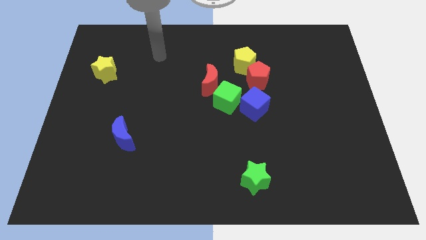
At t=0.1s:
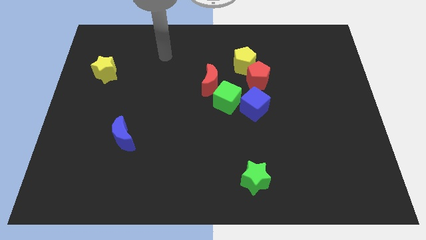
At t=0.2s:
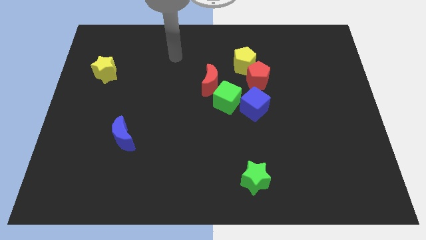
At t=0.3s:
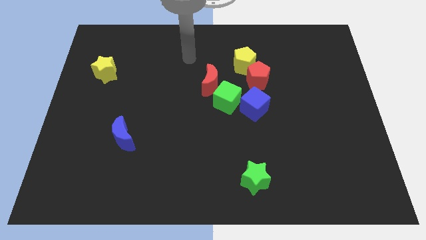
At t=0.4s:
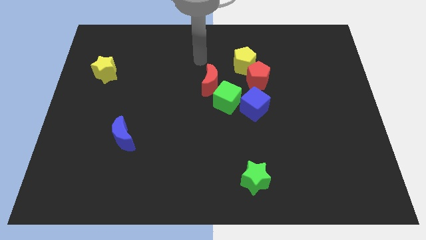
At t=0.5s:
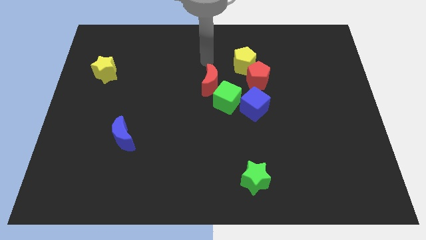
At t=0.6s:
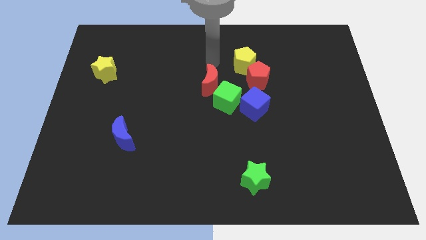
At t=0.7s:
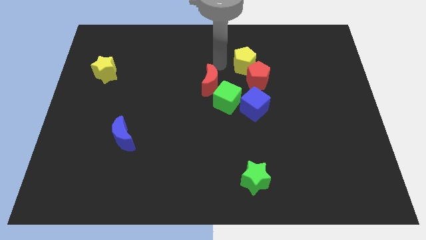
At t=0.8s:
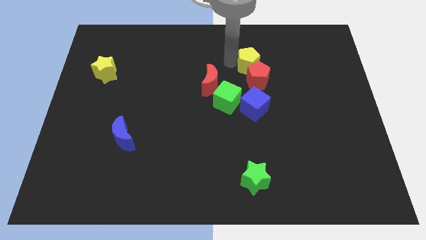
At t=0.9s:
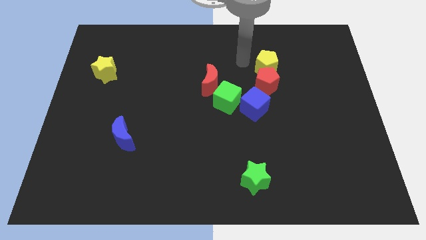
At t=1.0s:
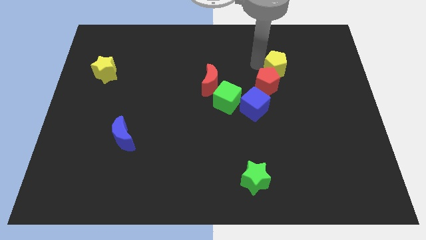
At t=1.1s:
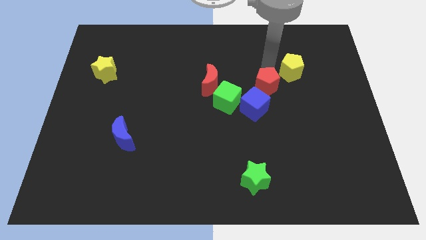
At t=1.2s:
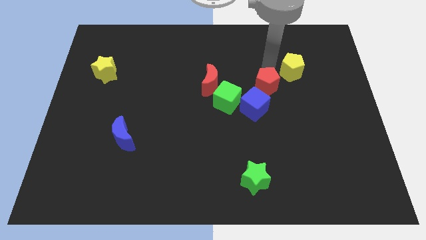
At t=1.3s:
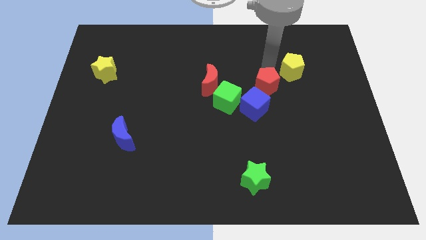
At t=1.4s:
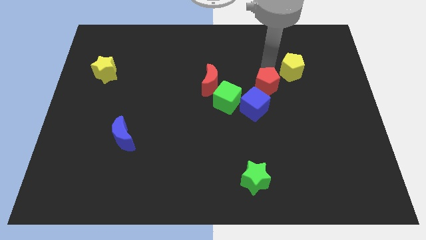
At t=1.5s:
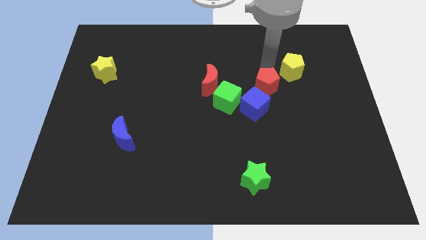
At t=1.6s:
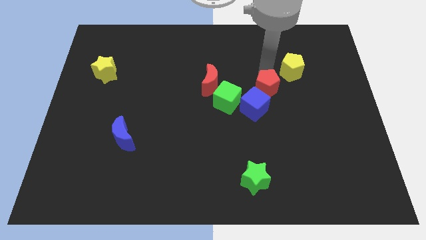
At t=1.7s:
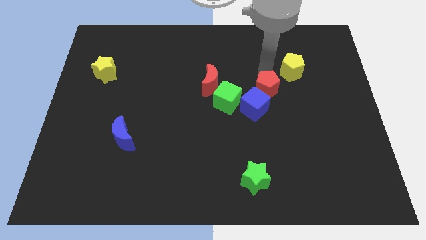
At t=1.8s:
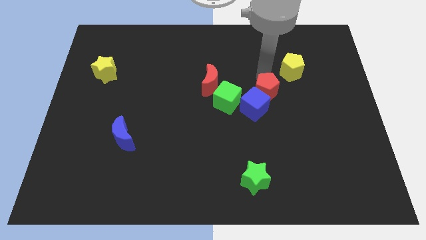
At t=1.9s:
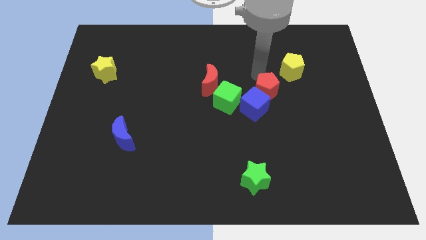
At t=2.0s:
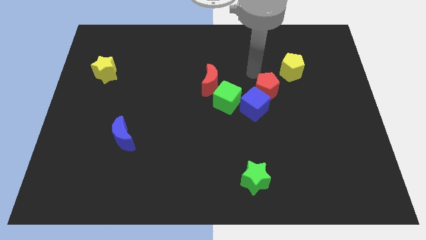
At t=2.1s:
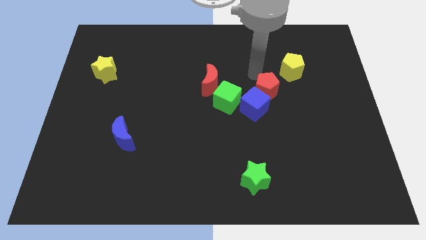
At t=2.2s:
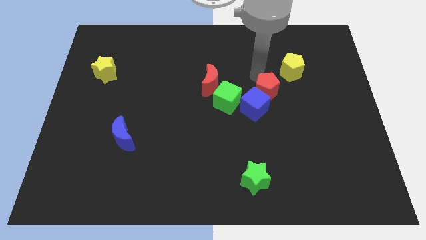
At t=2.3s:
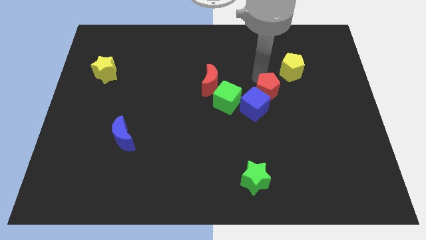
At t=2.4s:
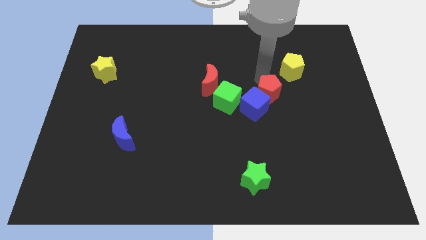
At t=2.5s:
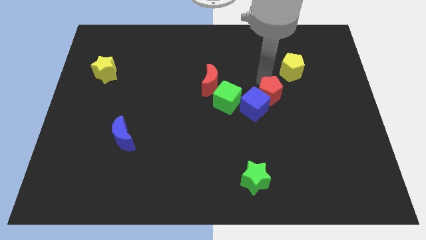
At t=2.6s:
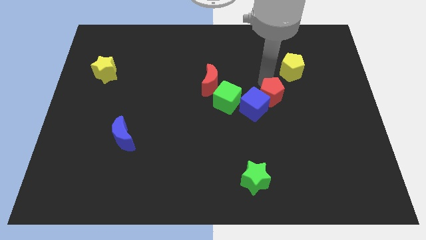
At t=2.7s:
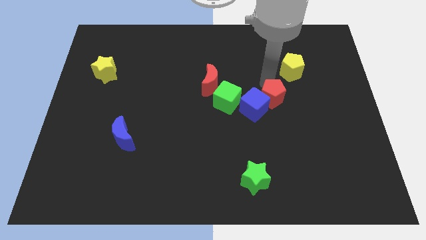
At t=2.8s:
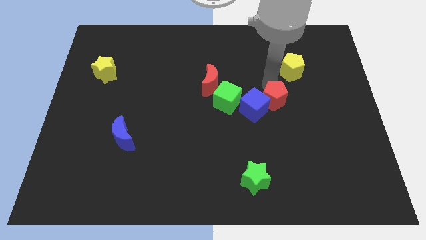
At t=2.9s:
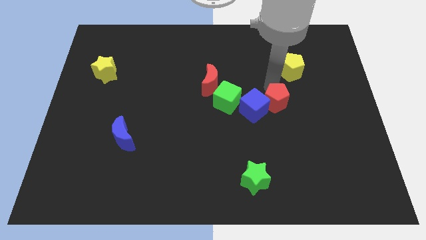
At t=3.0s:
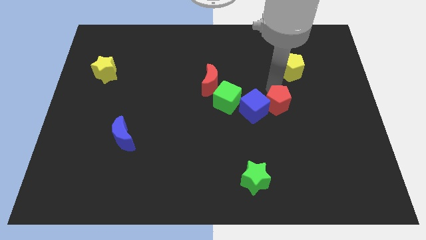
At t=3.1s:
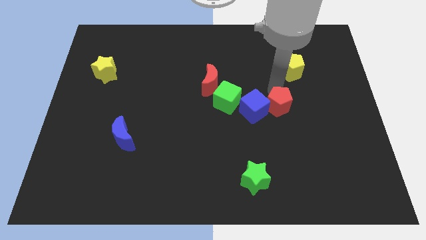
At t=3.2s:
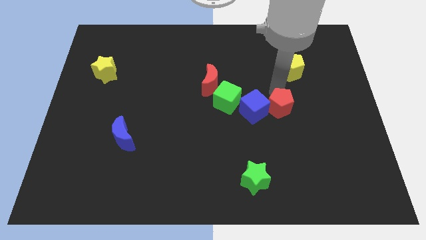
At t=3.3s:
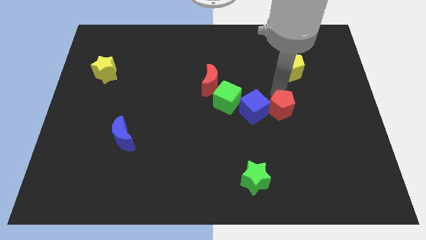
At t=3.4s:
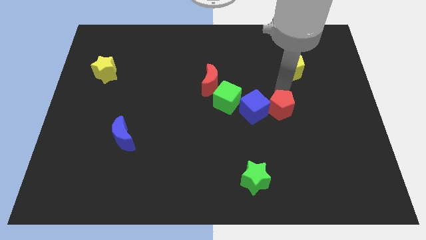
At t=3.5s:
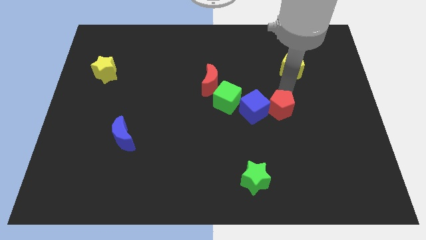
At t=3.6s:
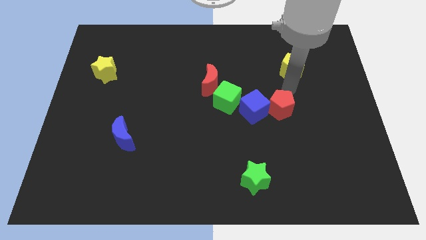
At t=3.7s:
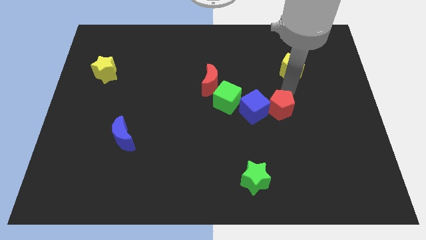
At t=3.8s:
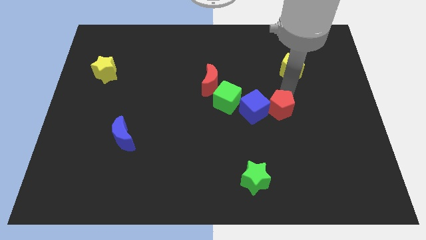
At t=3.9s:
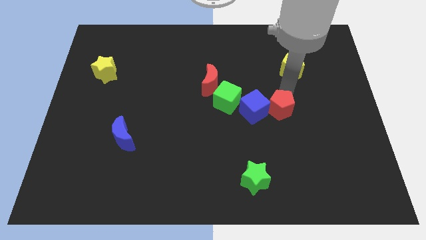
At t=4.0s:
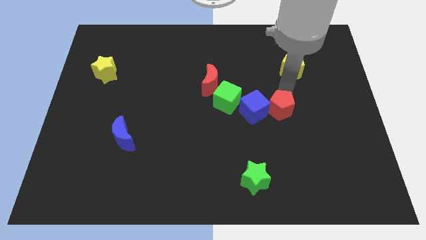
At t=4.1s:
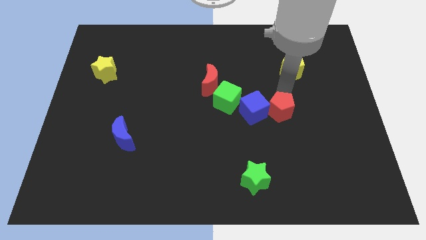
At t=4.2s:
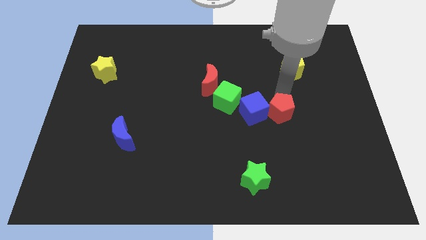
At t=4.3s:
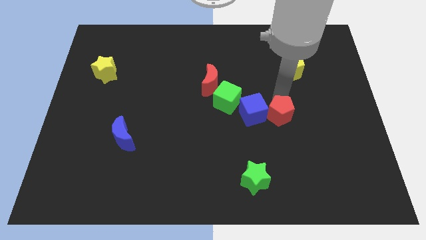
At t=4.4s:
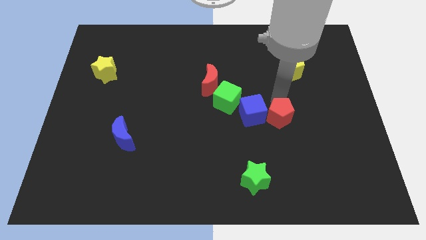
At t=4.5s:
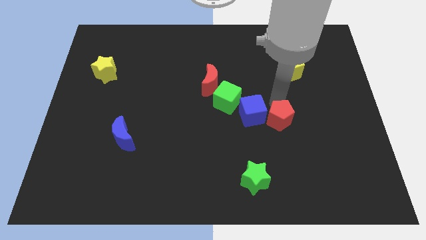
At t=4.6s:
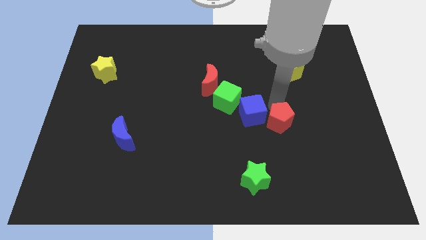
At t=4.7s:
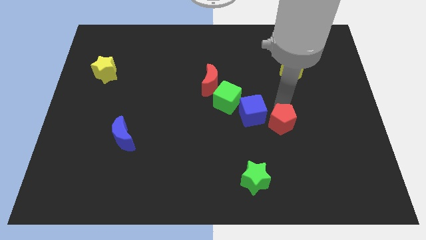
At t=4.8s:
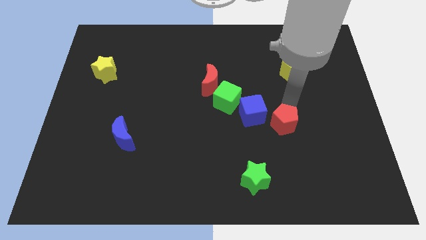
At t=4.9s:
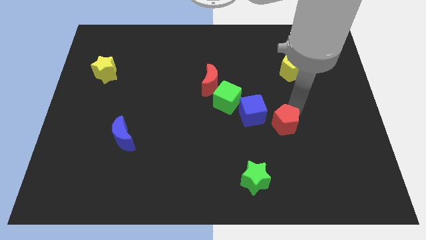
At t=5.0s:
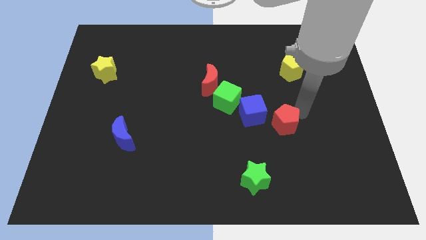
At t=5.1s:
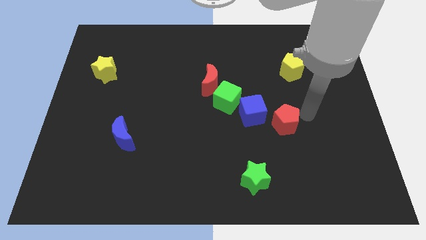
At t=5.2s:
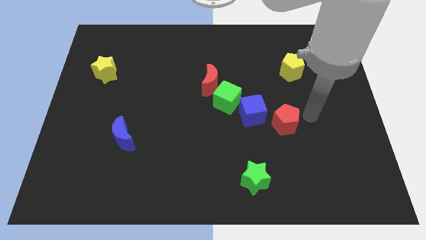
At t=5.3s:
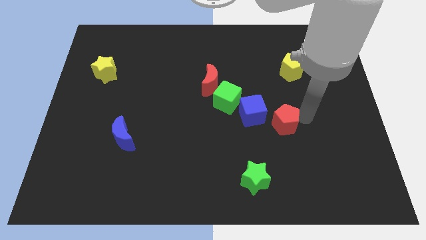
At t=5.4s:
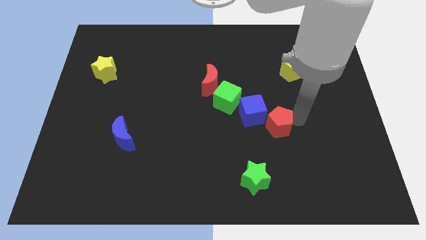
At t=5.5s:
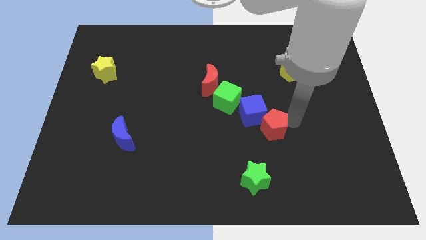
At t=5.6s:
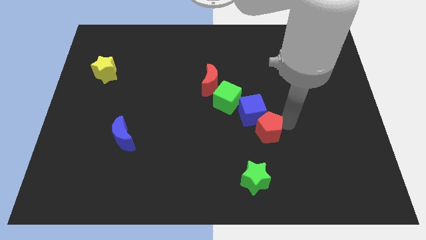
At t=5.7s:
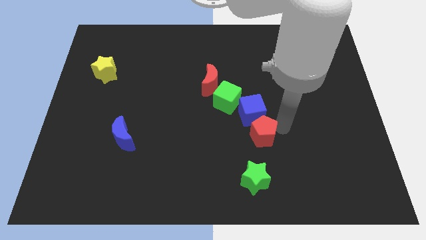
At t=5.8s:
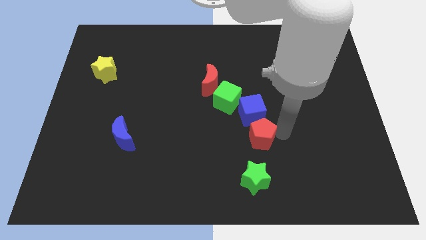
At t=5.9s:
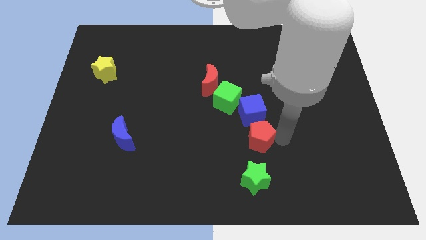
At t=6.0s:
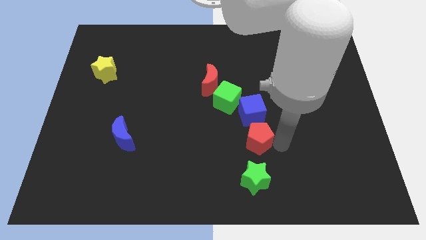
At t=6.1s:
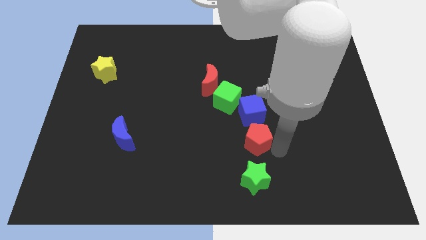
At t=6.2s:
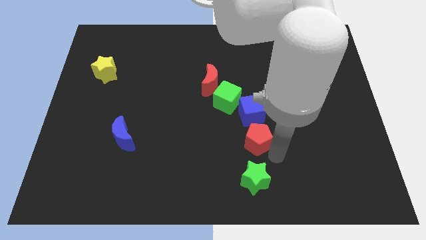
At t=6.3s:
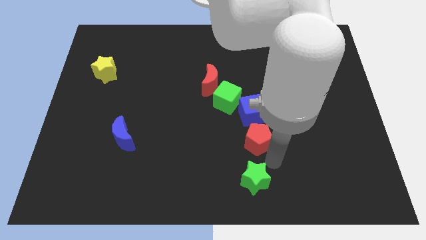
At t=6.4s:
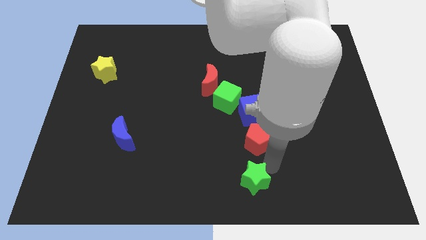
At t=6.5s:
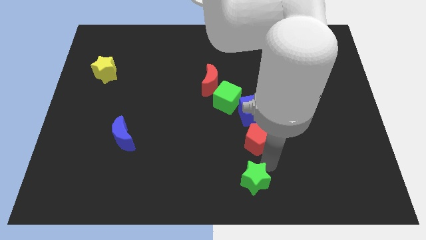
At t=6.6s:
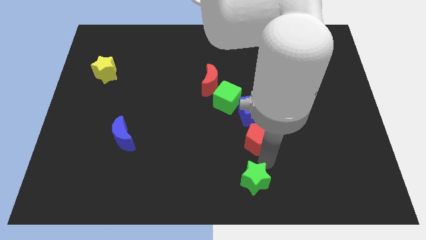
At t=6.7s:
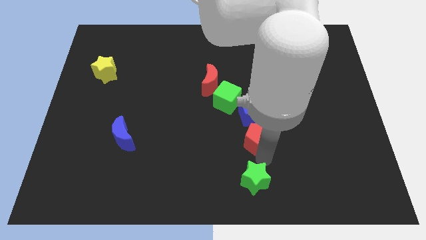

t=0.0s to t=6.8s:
slightly push the red pentagon down and left diagonally

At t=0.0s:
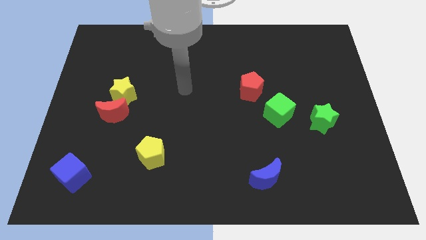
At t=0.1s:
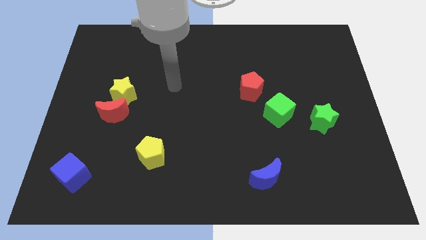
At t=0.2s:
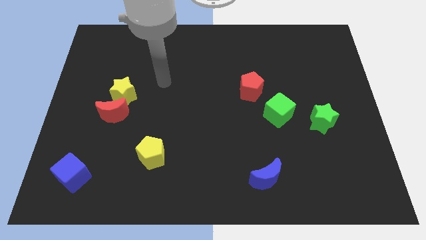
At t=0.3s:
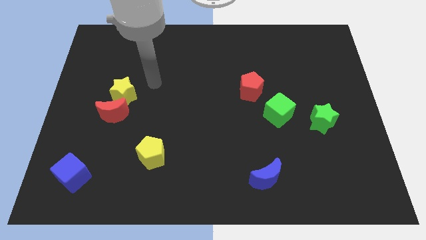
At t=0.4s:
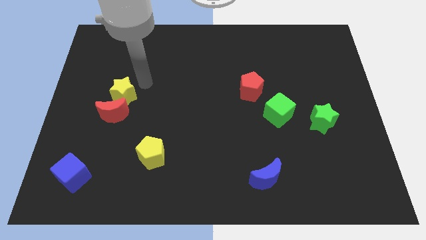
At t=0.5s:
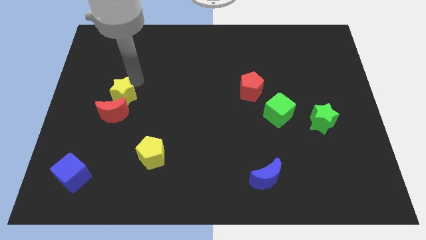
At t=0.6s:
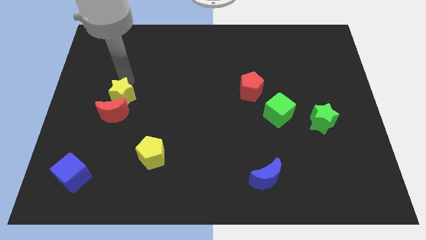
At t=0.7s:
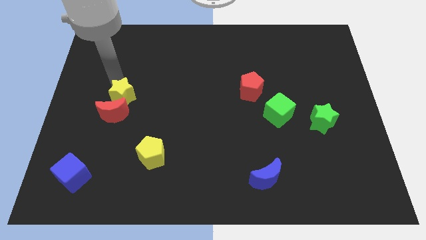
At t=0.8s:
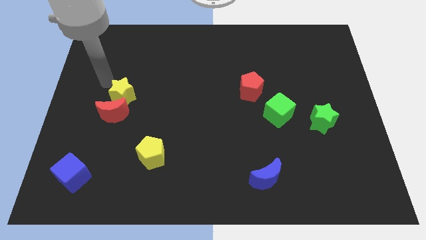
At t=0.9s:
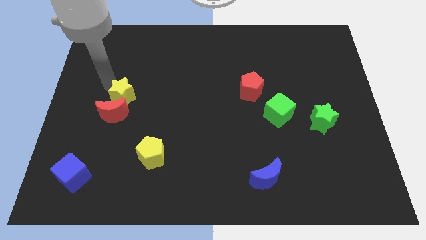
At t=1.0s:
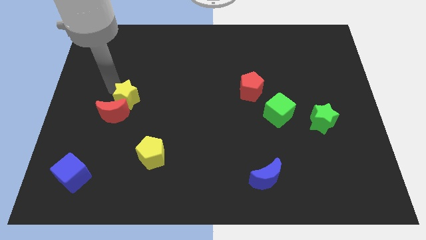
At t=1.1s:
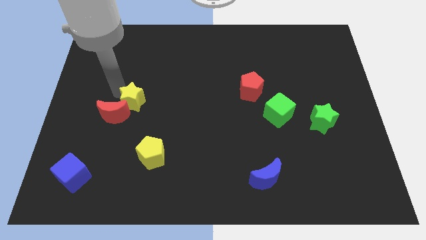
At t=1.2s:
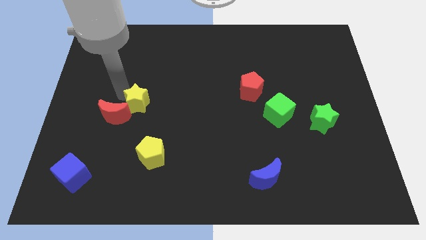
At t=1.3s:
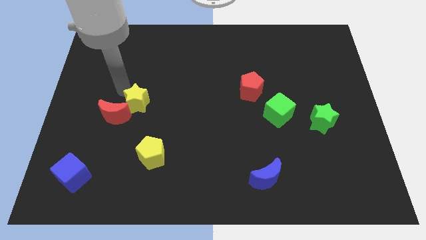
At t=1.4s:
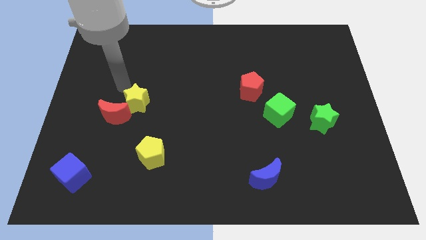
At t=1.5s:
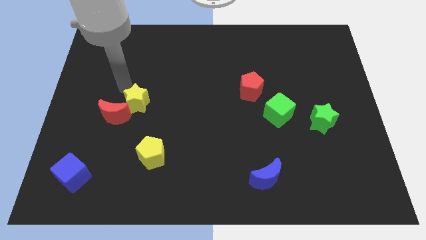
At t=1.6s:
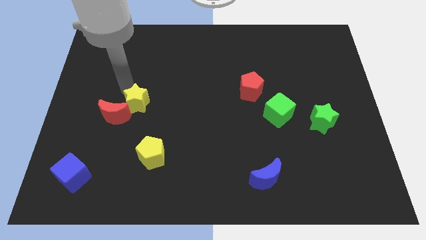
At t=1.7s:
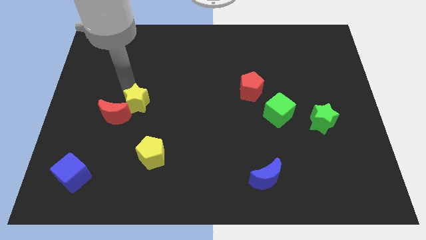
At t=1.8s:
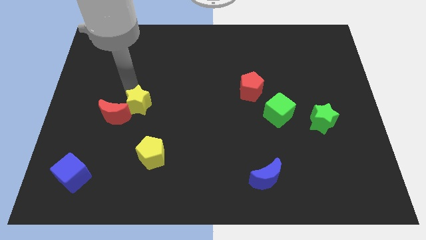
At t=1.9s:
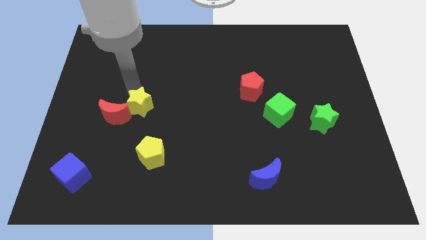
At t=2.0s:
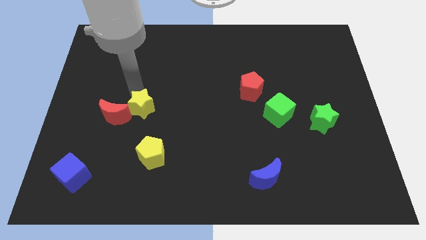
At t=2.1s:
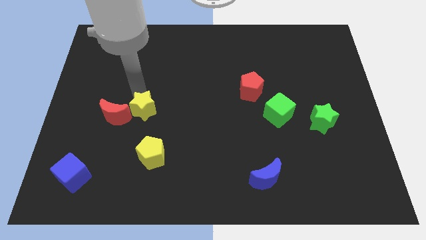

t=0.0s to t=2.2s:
slightly slide the yellow star down and right
